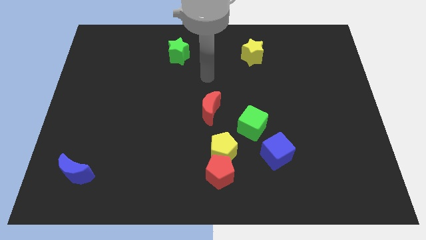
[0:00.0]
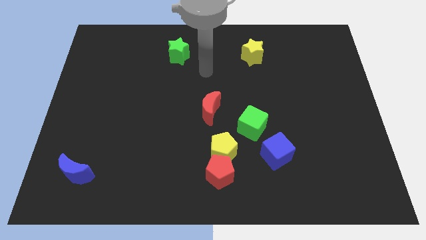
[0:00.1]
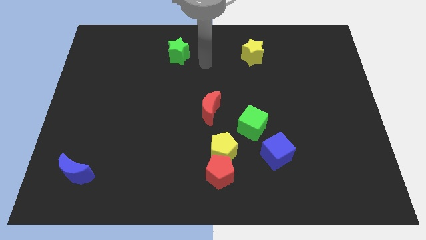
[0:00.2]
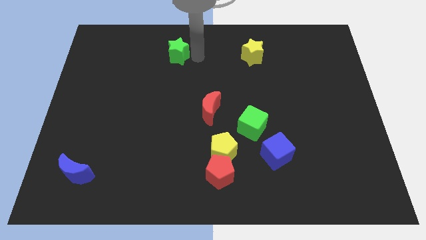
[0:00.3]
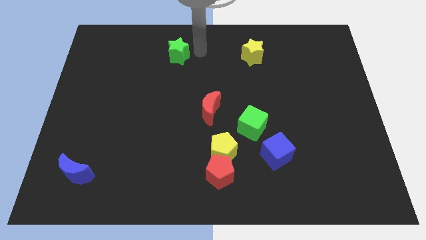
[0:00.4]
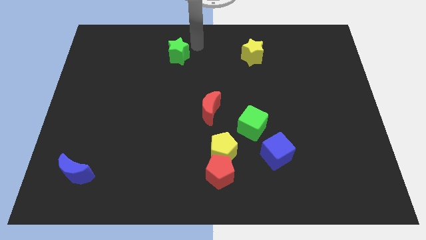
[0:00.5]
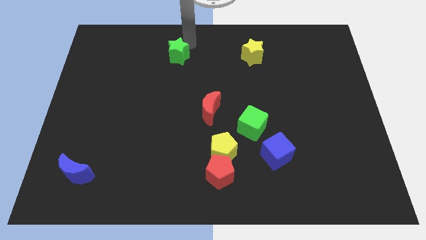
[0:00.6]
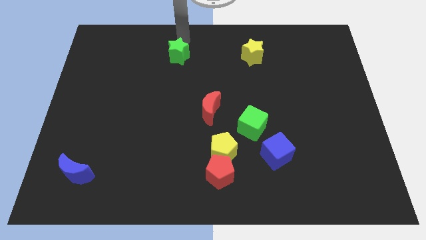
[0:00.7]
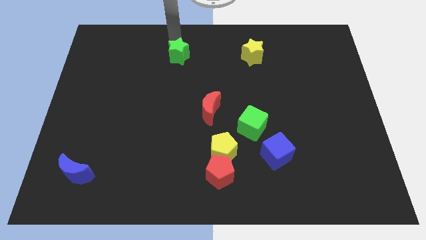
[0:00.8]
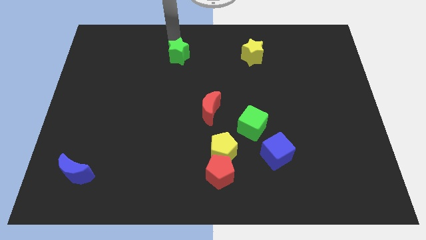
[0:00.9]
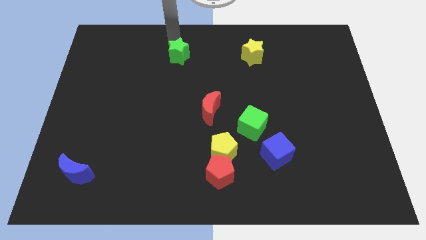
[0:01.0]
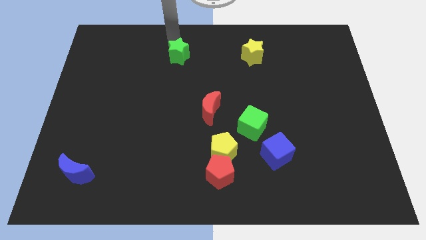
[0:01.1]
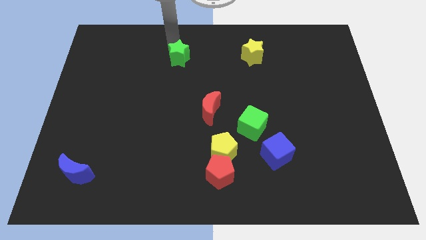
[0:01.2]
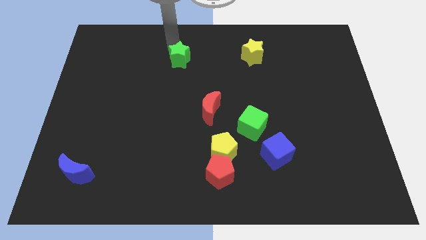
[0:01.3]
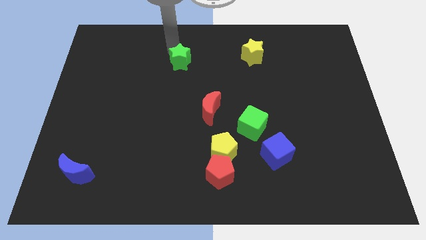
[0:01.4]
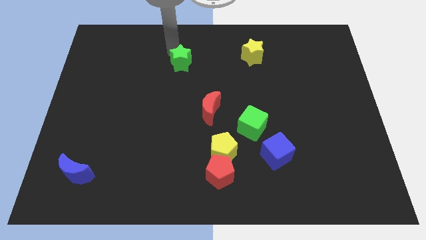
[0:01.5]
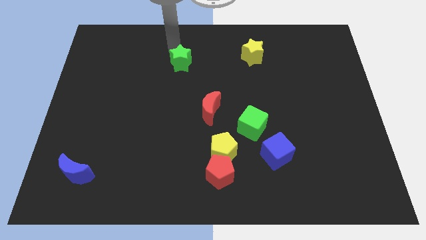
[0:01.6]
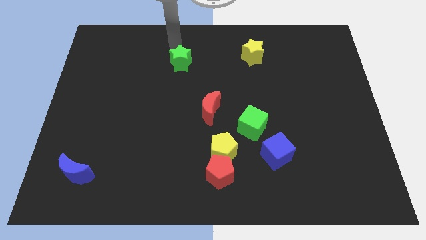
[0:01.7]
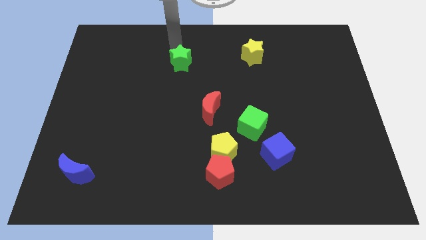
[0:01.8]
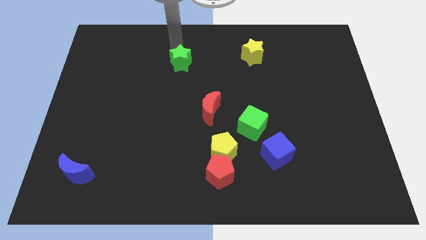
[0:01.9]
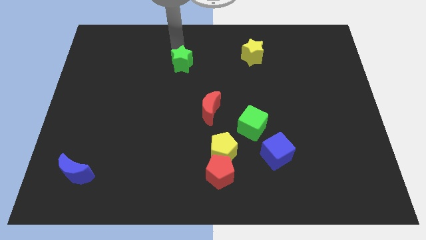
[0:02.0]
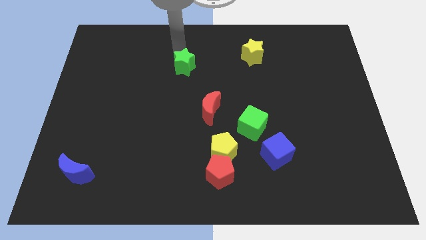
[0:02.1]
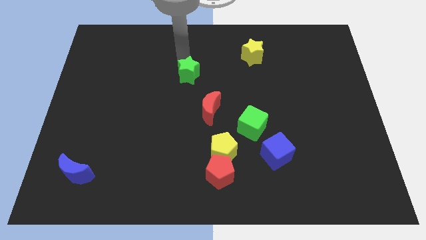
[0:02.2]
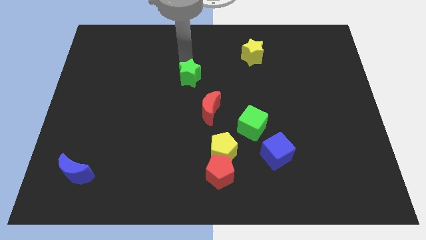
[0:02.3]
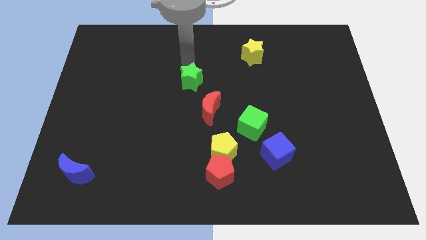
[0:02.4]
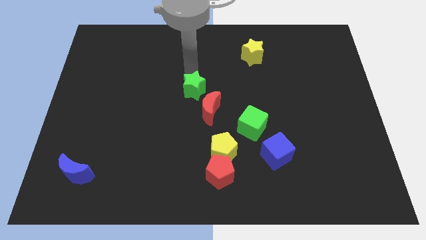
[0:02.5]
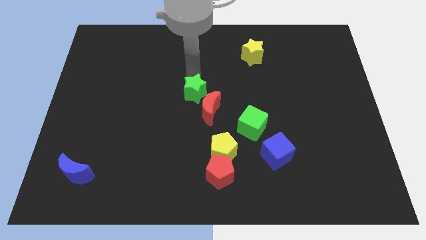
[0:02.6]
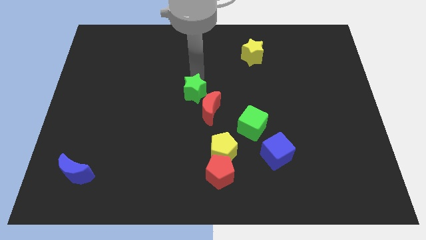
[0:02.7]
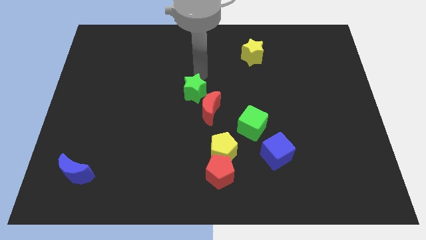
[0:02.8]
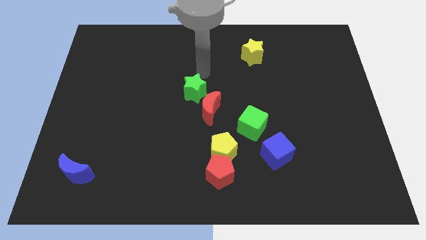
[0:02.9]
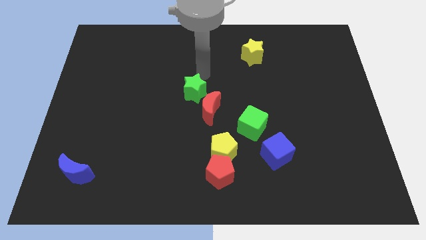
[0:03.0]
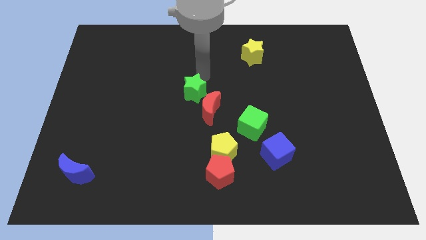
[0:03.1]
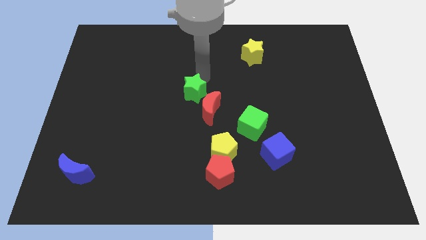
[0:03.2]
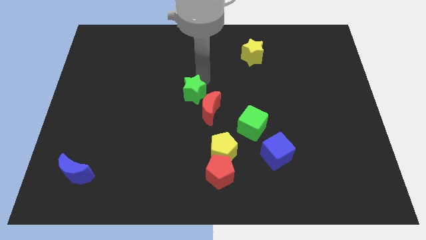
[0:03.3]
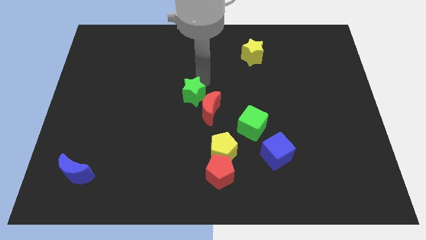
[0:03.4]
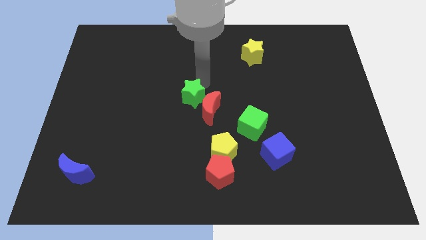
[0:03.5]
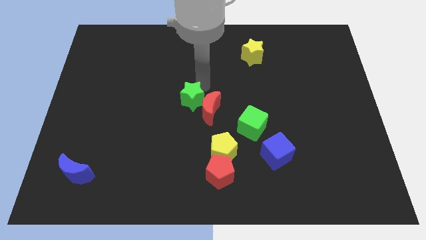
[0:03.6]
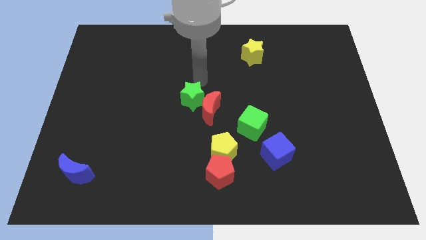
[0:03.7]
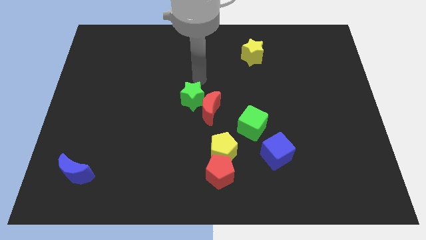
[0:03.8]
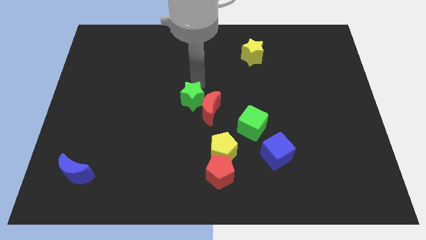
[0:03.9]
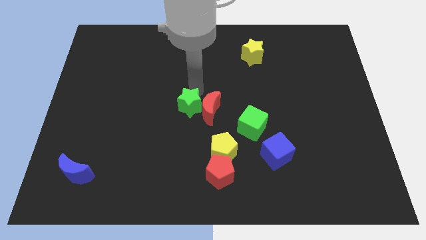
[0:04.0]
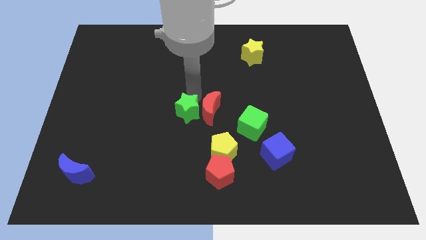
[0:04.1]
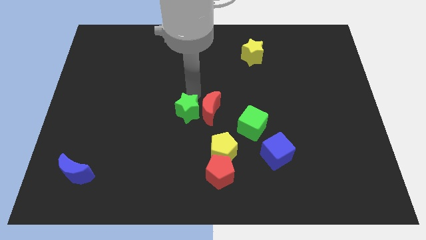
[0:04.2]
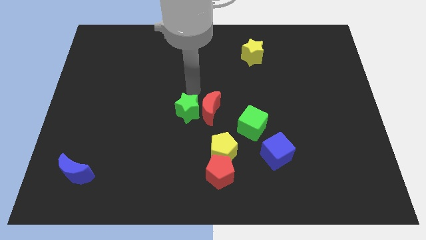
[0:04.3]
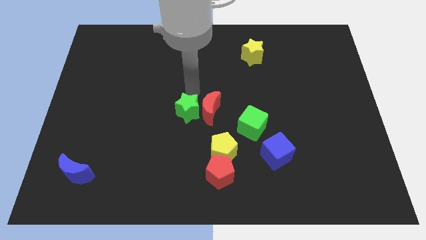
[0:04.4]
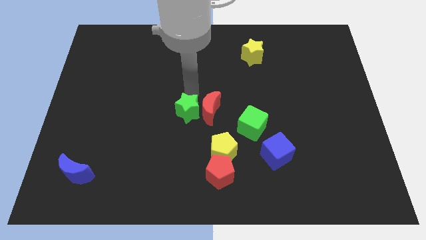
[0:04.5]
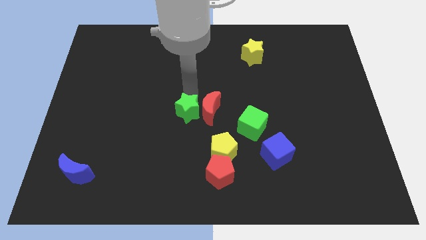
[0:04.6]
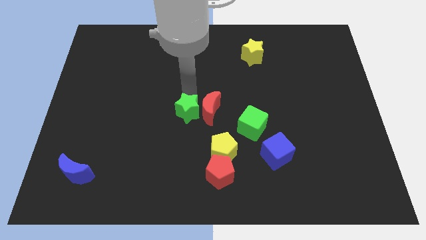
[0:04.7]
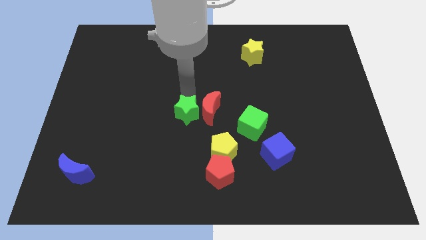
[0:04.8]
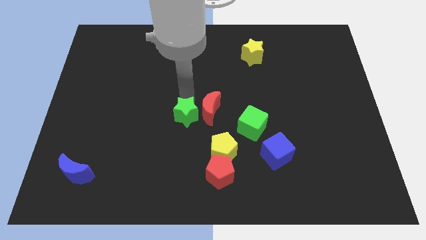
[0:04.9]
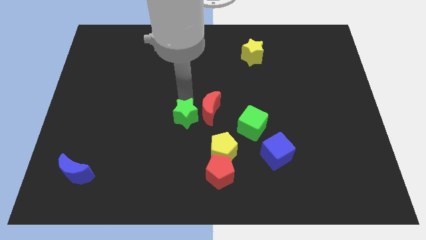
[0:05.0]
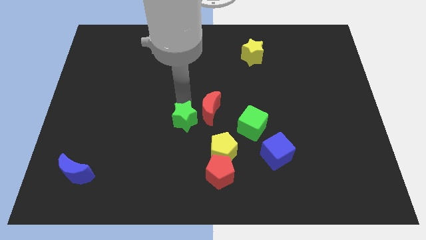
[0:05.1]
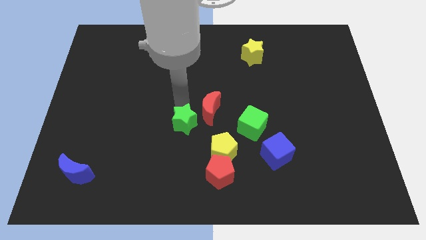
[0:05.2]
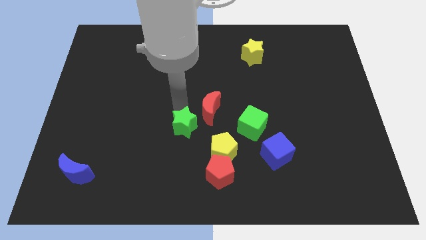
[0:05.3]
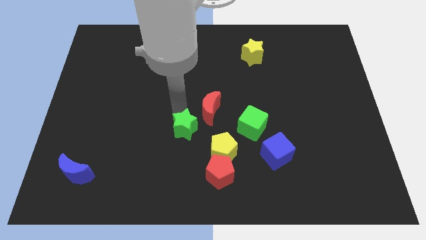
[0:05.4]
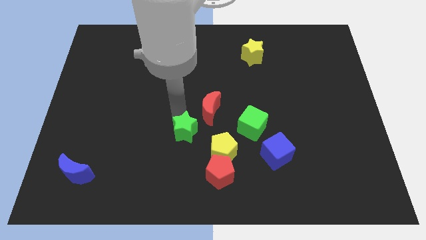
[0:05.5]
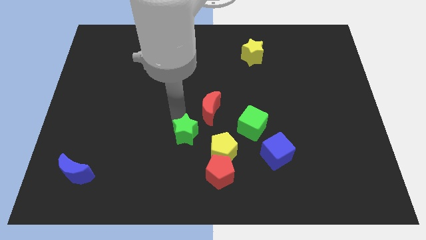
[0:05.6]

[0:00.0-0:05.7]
put the green star diagonally up and to the left of the red pentagon

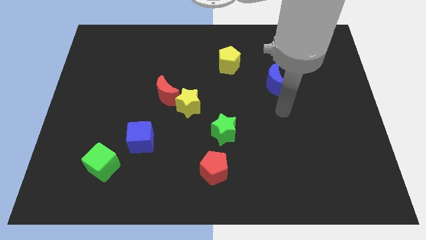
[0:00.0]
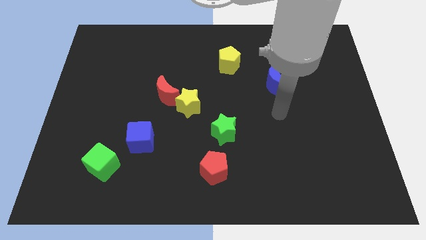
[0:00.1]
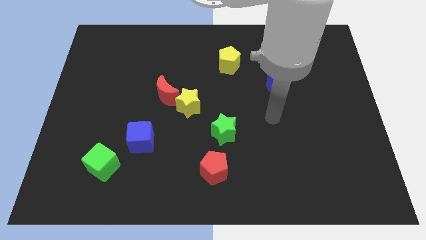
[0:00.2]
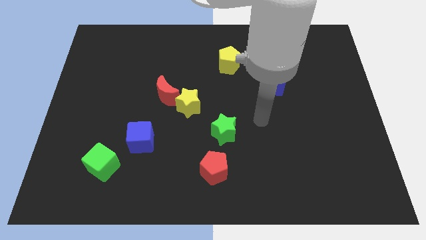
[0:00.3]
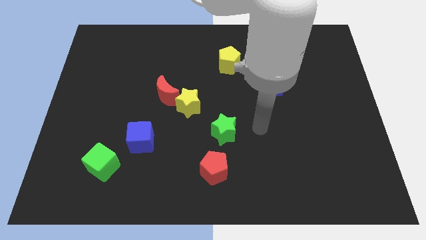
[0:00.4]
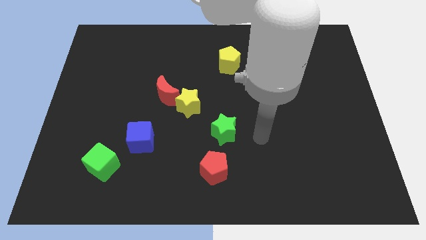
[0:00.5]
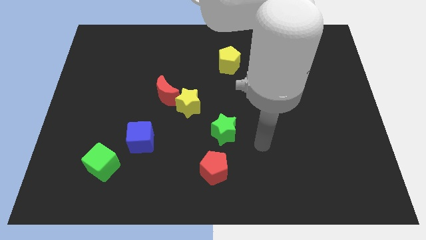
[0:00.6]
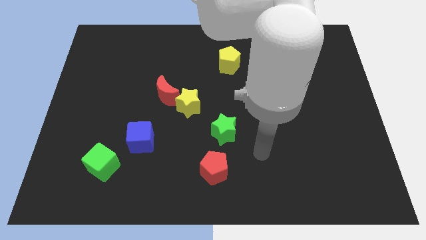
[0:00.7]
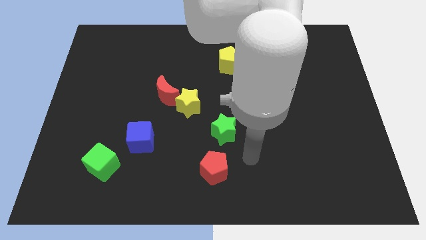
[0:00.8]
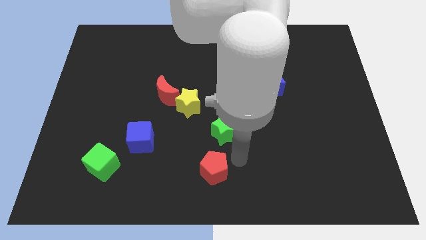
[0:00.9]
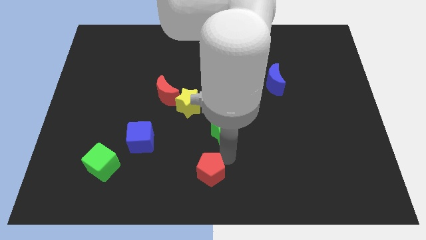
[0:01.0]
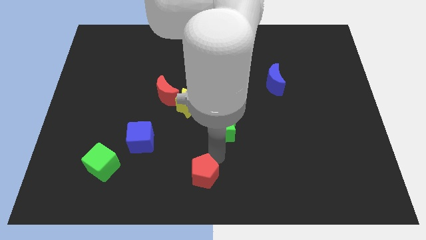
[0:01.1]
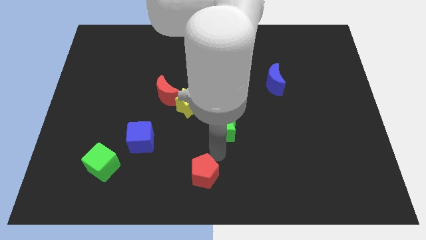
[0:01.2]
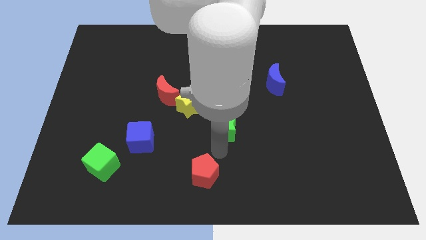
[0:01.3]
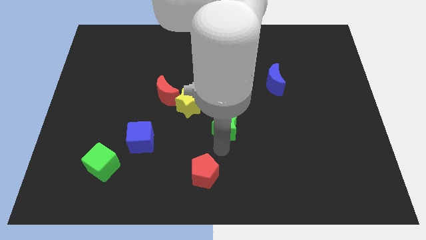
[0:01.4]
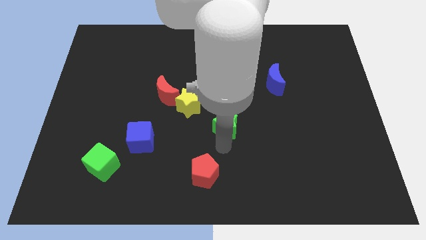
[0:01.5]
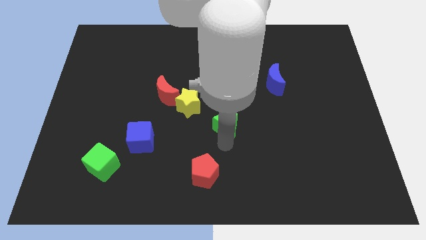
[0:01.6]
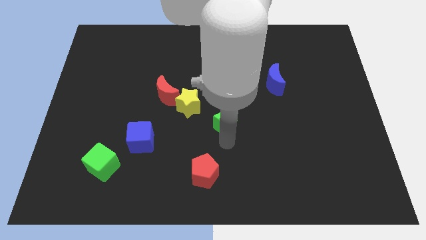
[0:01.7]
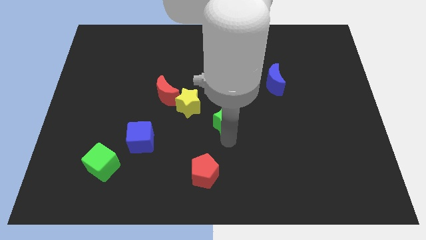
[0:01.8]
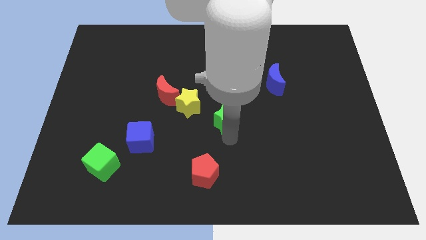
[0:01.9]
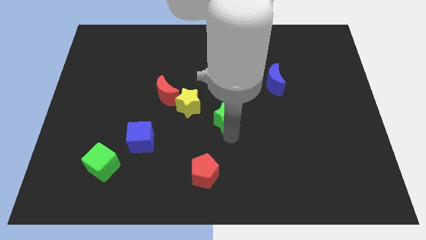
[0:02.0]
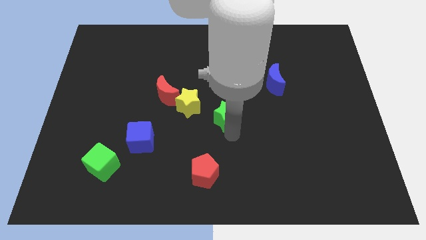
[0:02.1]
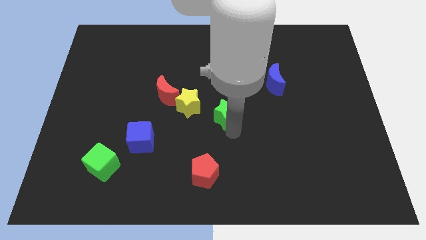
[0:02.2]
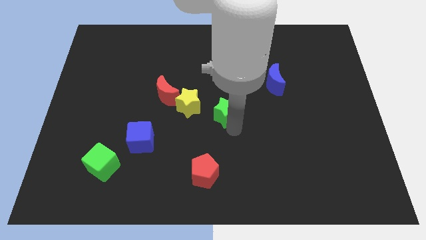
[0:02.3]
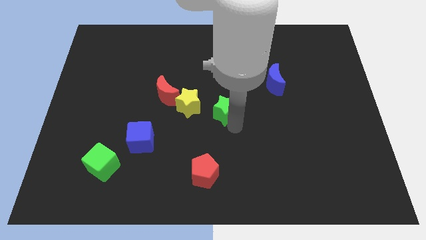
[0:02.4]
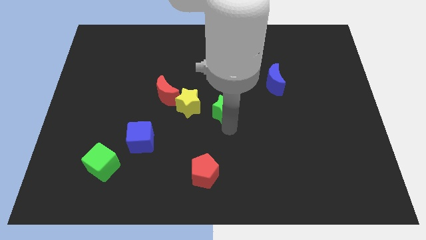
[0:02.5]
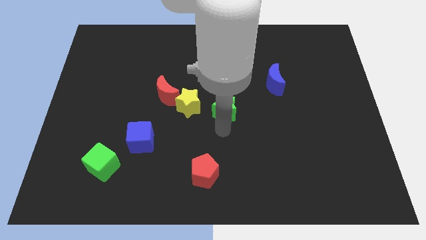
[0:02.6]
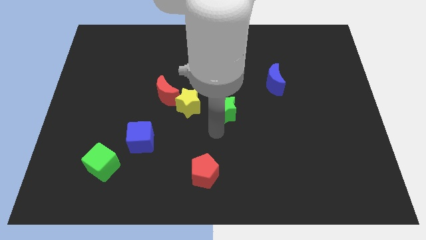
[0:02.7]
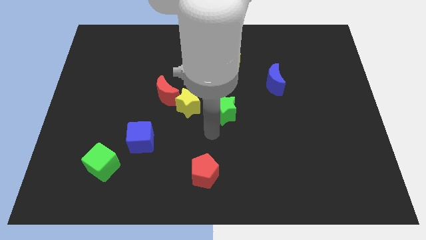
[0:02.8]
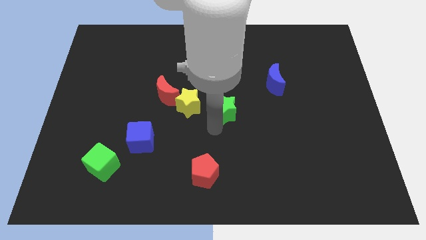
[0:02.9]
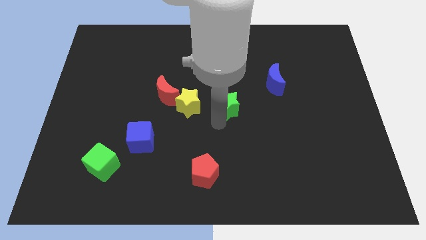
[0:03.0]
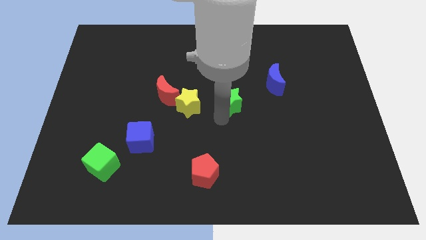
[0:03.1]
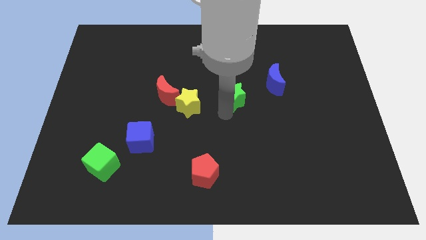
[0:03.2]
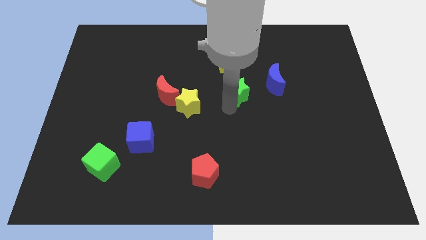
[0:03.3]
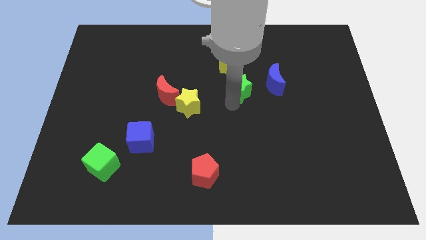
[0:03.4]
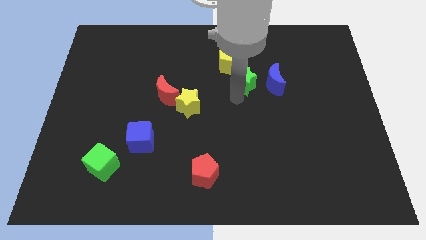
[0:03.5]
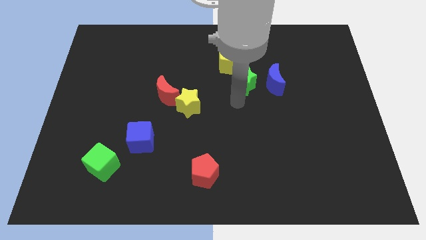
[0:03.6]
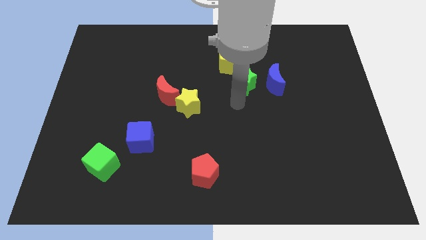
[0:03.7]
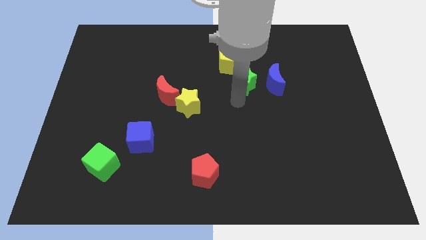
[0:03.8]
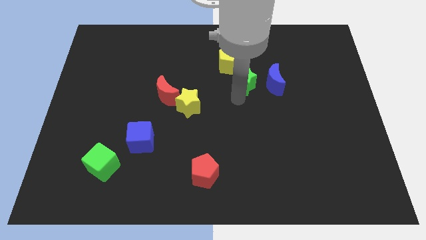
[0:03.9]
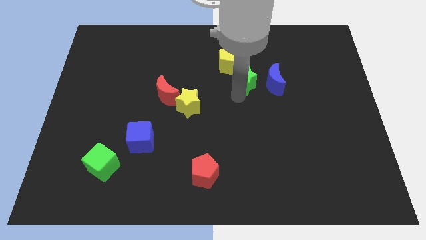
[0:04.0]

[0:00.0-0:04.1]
move the green star to the top left side of the blue moon
